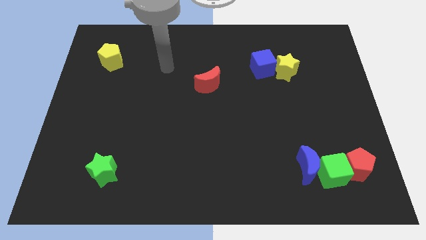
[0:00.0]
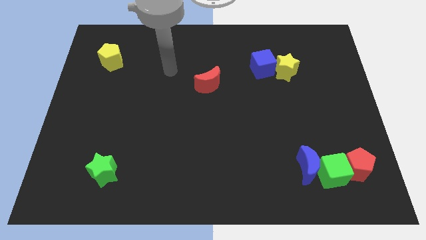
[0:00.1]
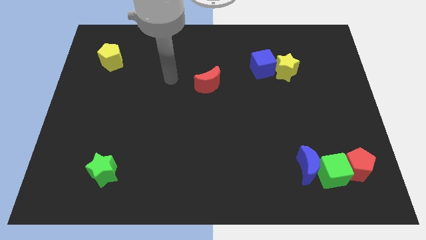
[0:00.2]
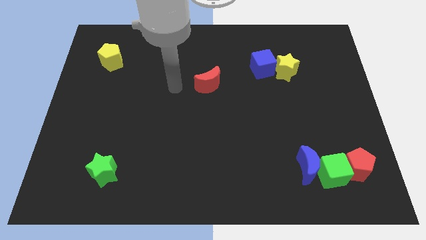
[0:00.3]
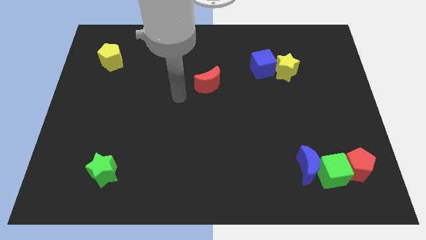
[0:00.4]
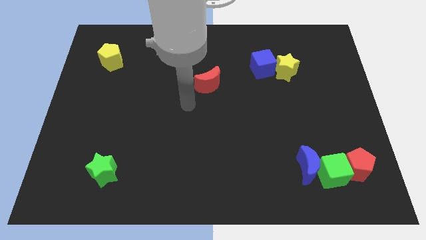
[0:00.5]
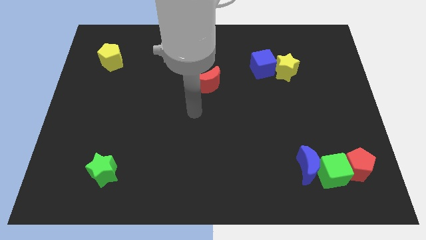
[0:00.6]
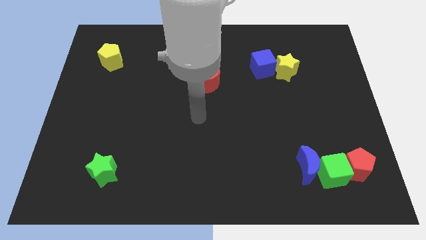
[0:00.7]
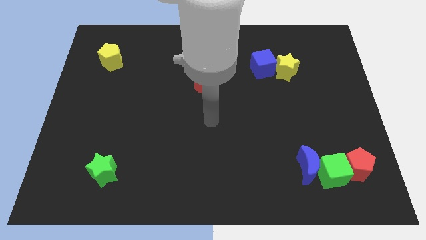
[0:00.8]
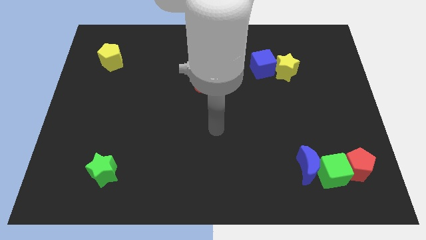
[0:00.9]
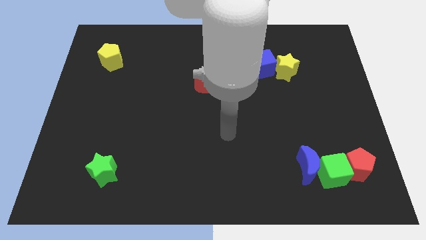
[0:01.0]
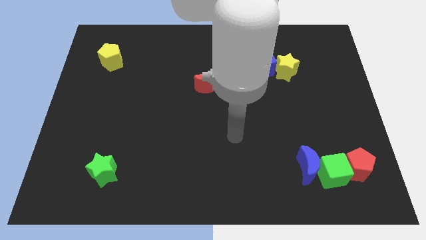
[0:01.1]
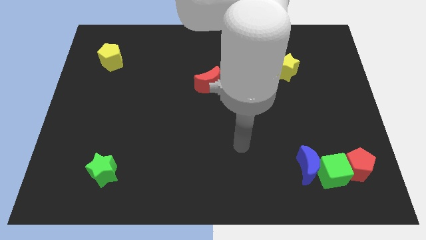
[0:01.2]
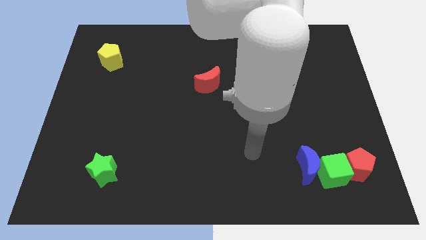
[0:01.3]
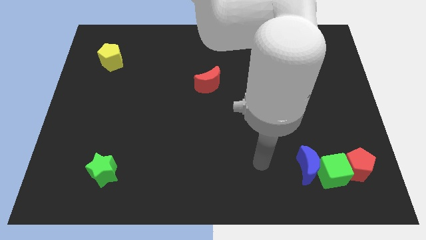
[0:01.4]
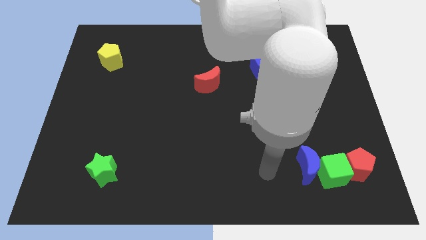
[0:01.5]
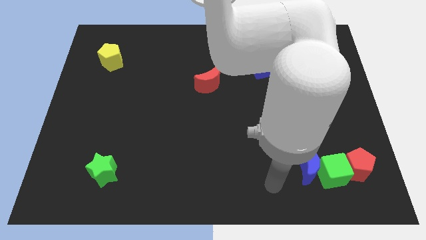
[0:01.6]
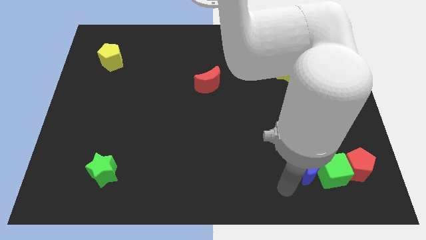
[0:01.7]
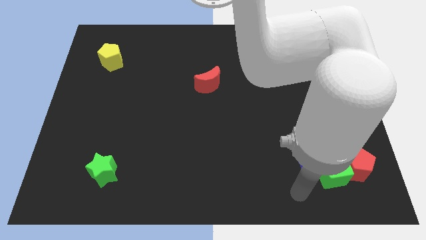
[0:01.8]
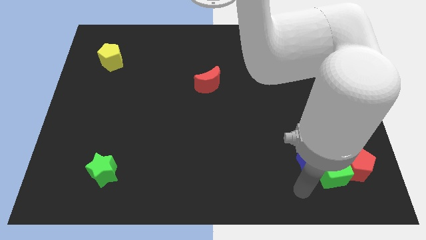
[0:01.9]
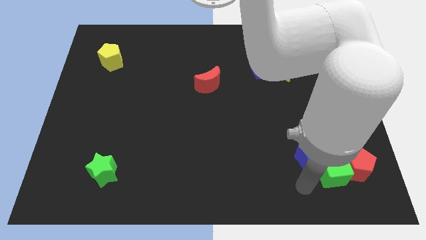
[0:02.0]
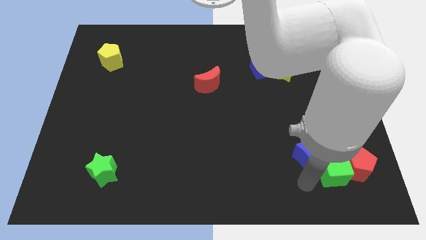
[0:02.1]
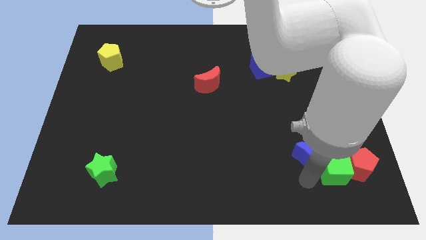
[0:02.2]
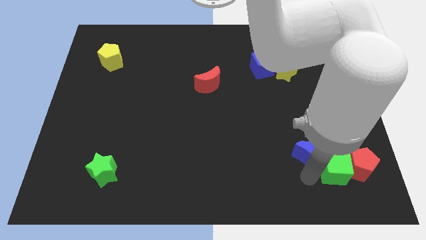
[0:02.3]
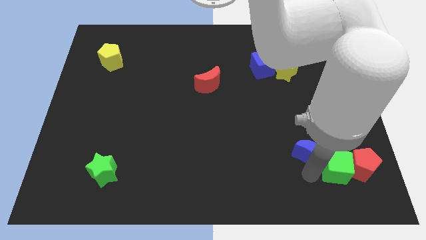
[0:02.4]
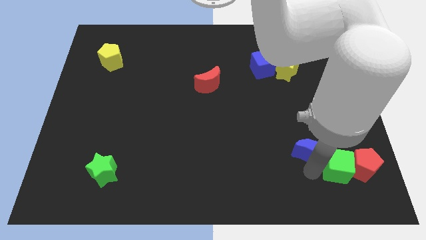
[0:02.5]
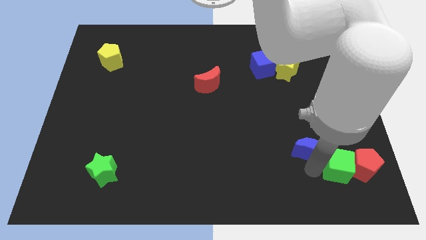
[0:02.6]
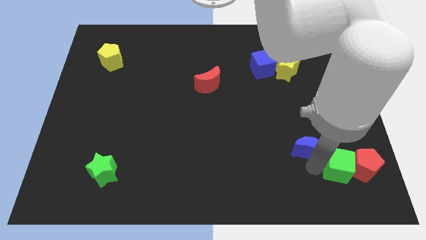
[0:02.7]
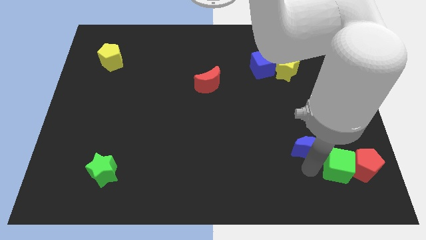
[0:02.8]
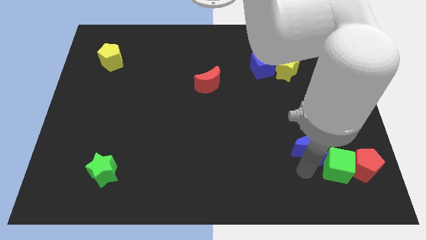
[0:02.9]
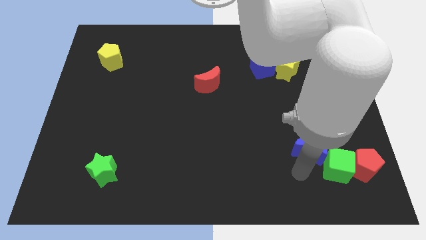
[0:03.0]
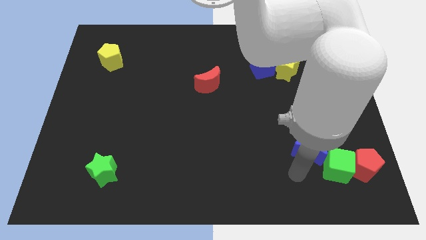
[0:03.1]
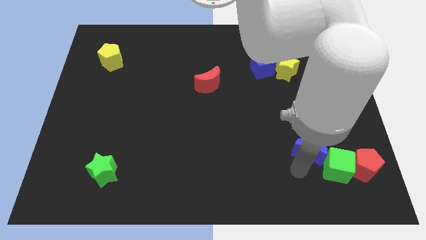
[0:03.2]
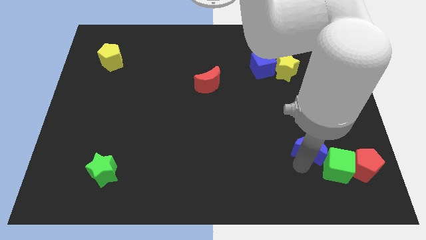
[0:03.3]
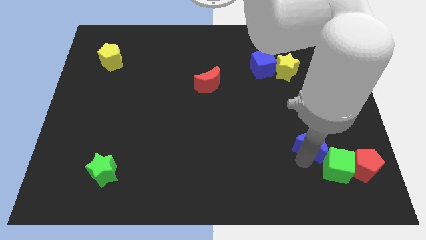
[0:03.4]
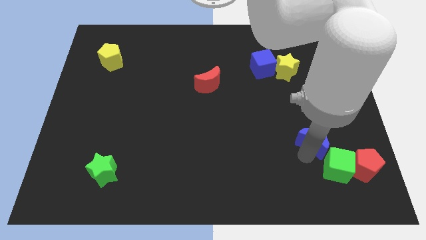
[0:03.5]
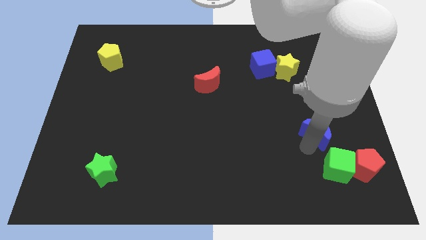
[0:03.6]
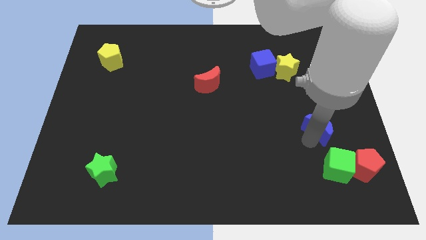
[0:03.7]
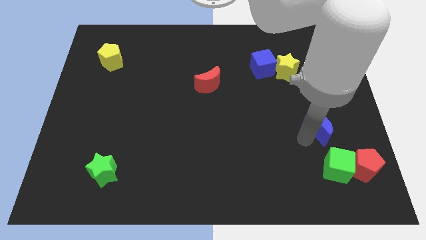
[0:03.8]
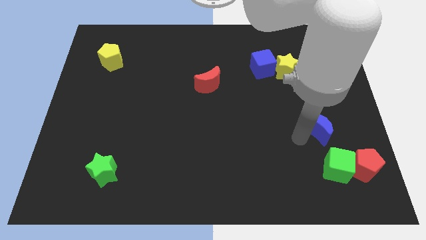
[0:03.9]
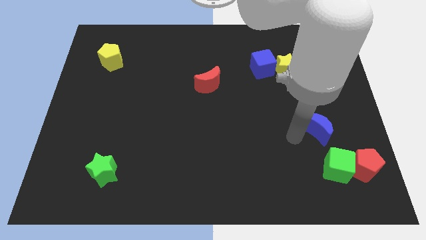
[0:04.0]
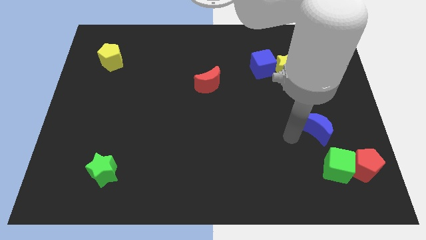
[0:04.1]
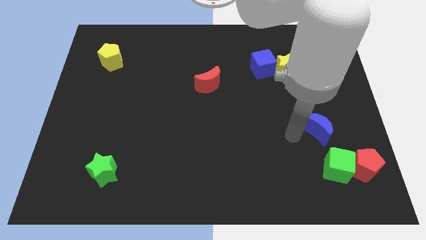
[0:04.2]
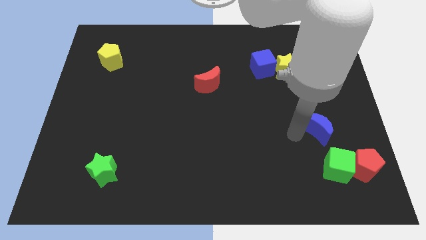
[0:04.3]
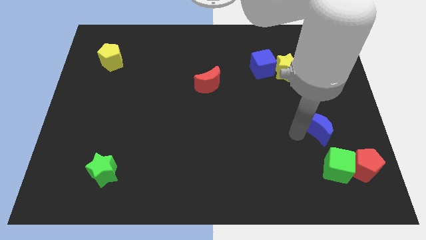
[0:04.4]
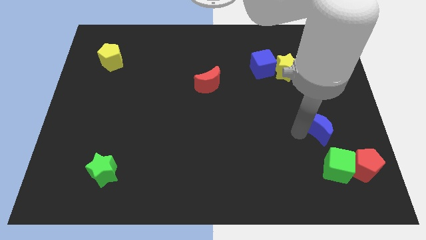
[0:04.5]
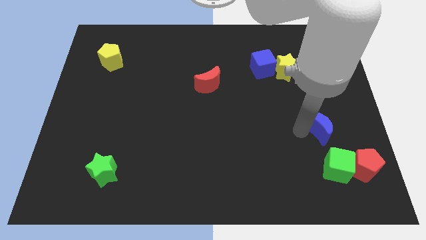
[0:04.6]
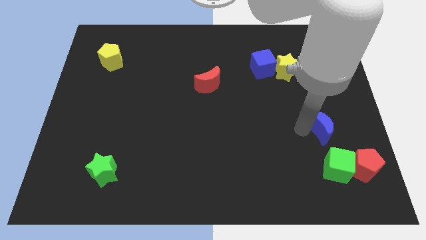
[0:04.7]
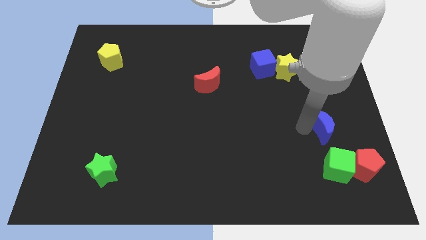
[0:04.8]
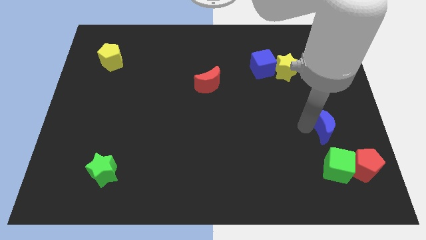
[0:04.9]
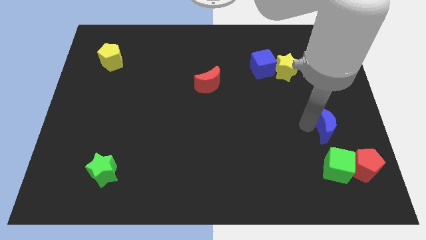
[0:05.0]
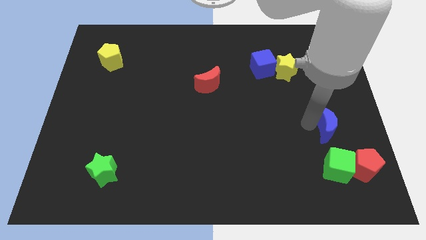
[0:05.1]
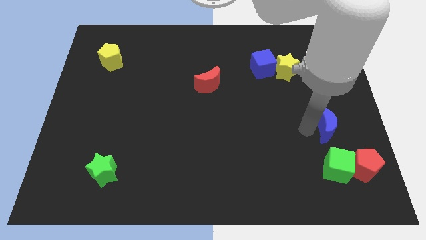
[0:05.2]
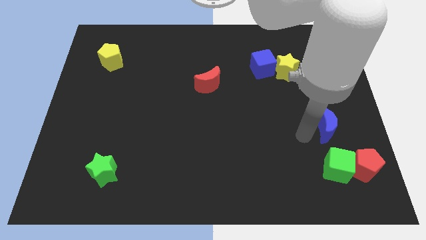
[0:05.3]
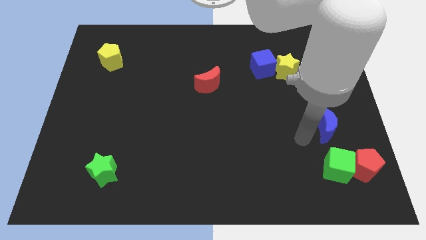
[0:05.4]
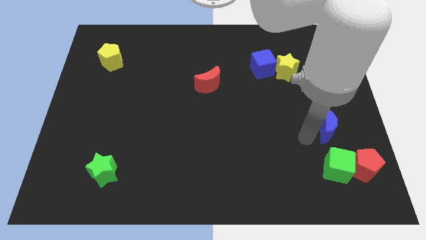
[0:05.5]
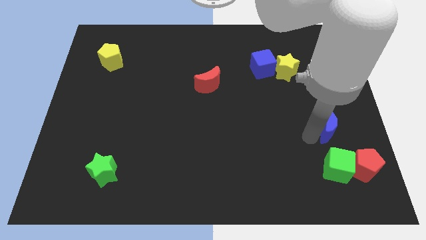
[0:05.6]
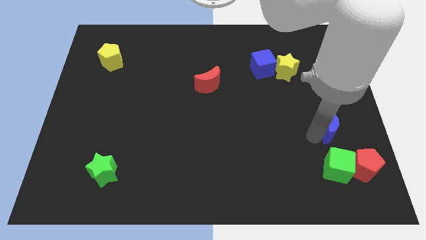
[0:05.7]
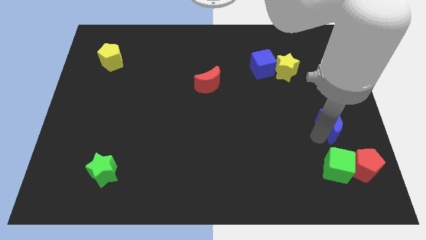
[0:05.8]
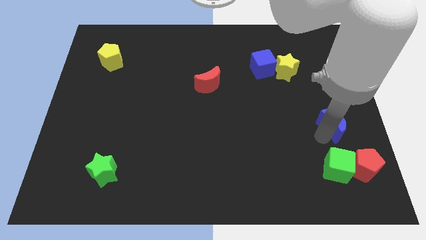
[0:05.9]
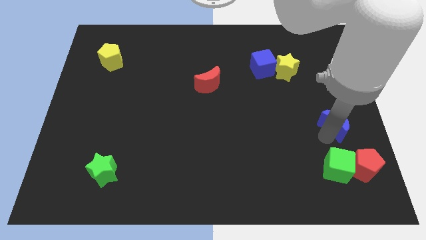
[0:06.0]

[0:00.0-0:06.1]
push the blue moon to the right side
